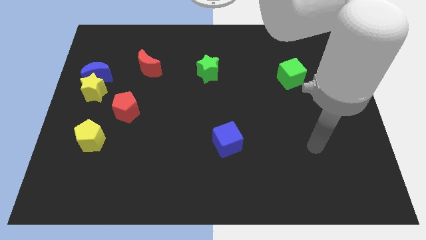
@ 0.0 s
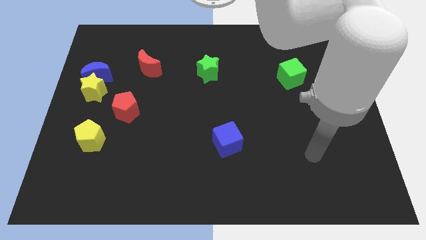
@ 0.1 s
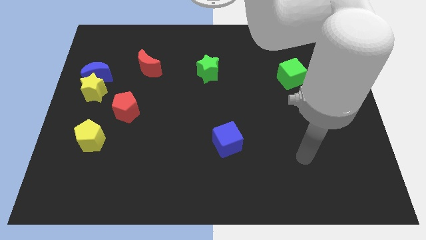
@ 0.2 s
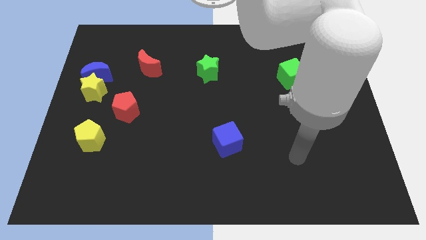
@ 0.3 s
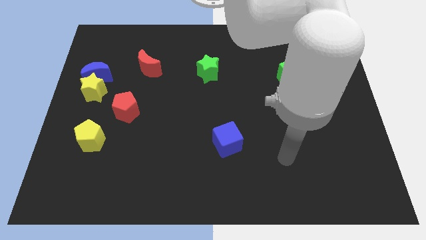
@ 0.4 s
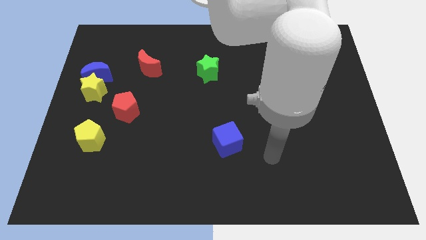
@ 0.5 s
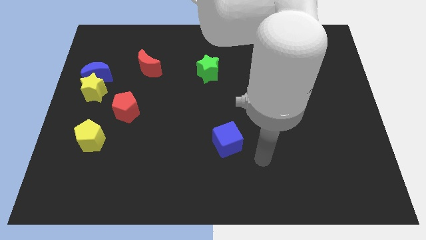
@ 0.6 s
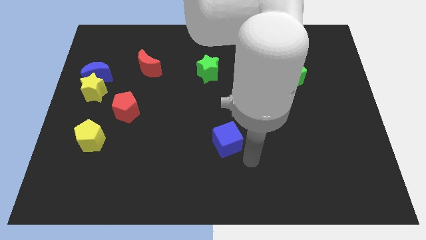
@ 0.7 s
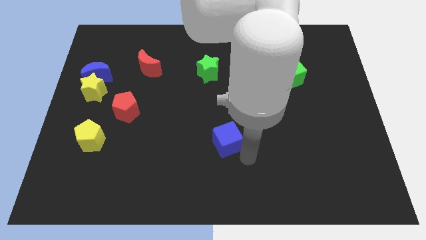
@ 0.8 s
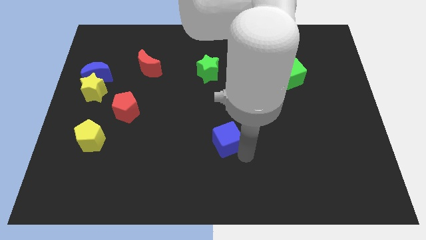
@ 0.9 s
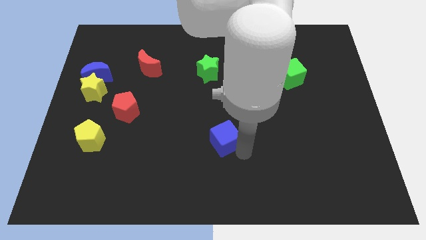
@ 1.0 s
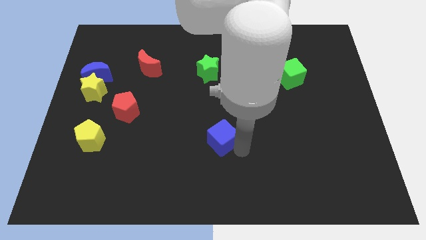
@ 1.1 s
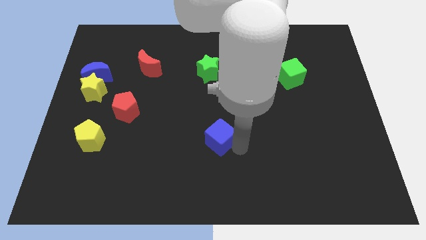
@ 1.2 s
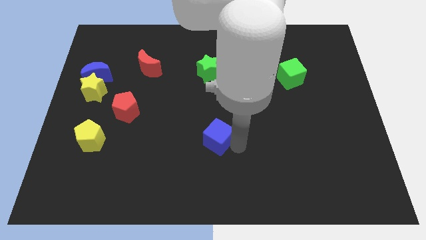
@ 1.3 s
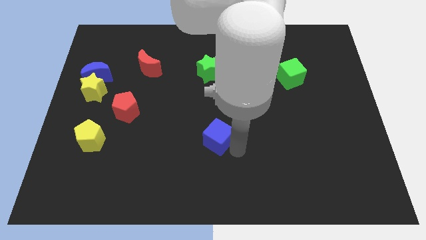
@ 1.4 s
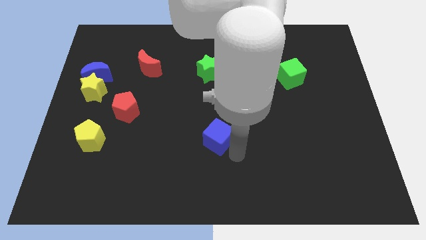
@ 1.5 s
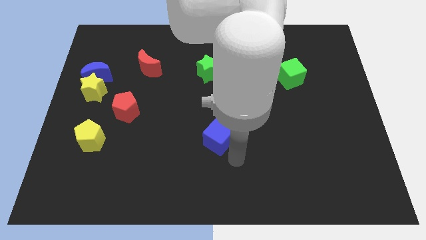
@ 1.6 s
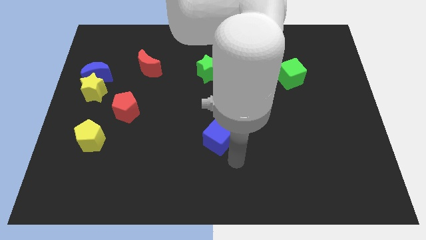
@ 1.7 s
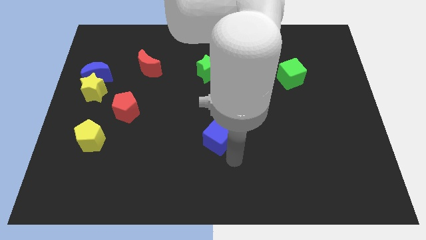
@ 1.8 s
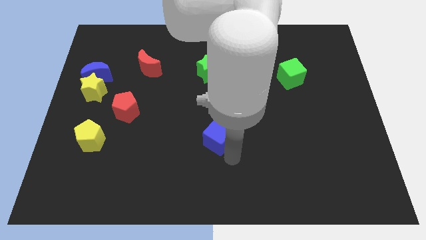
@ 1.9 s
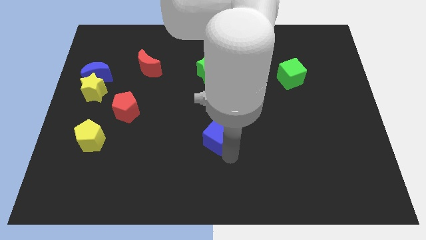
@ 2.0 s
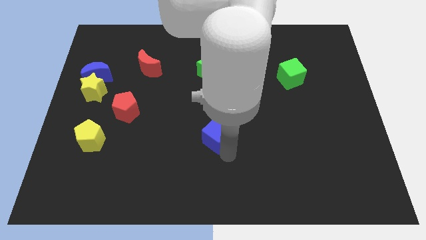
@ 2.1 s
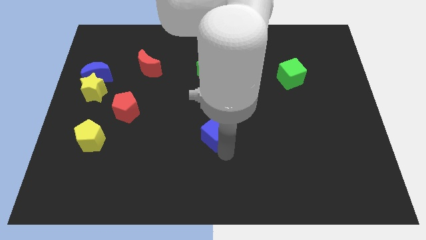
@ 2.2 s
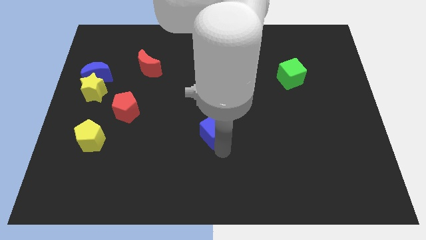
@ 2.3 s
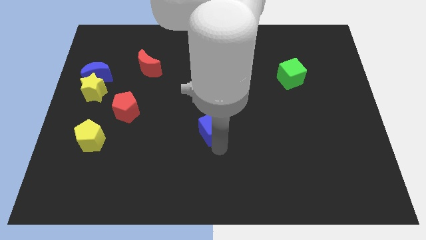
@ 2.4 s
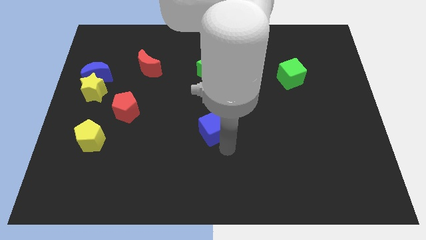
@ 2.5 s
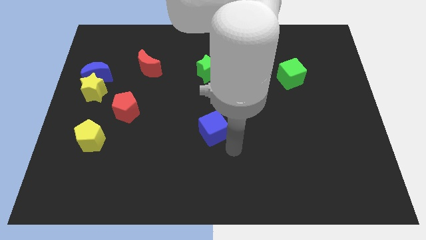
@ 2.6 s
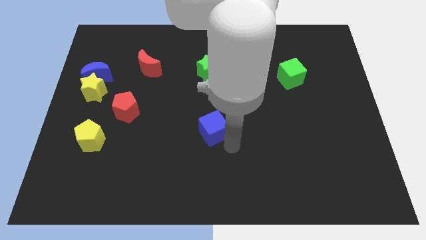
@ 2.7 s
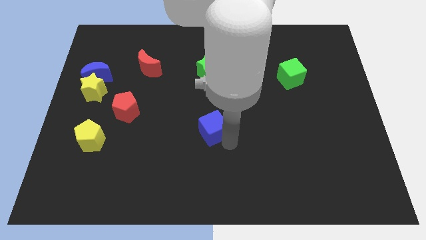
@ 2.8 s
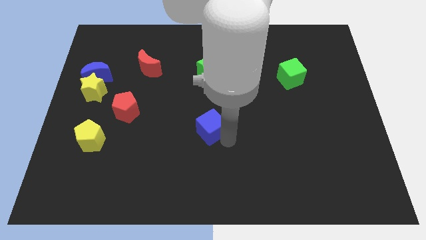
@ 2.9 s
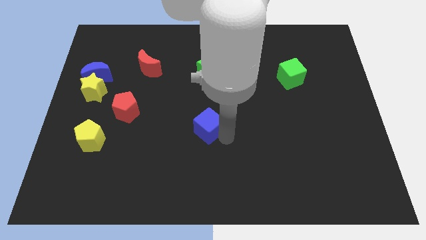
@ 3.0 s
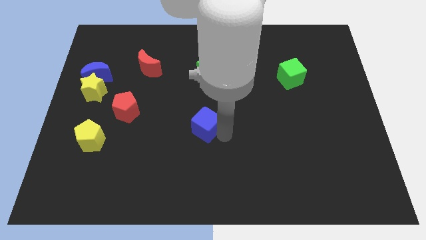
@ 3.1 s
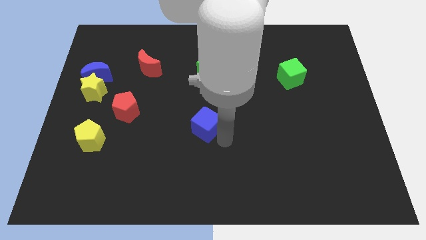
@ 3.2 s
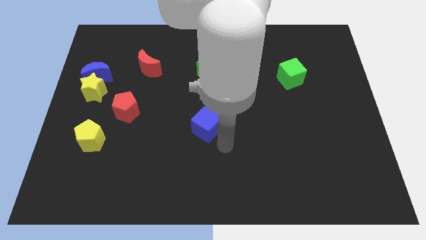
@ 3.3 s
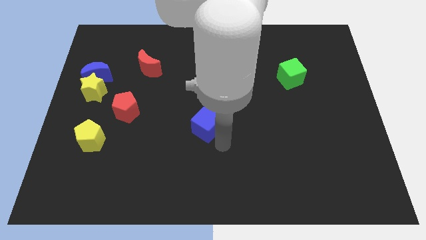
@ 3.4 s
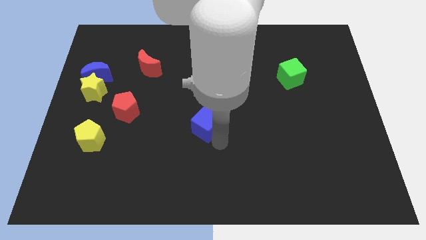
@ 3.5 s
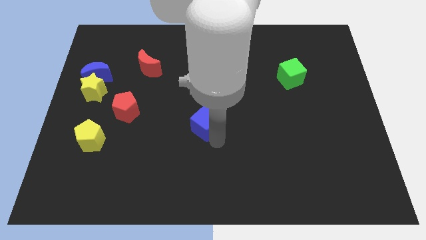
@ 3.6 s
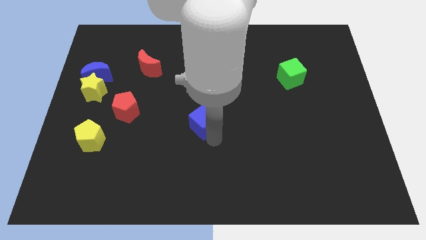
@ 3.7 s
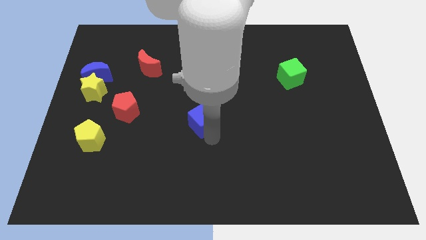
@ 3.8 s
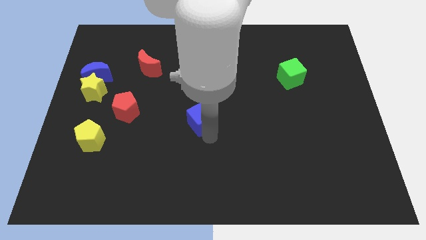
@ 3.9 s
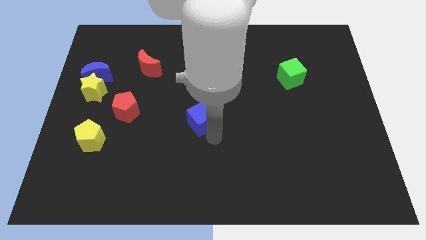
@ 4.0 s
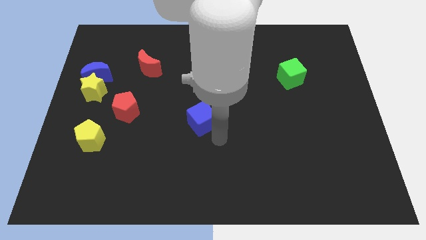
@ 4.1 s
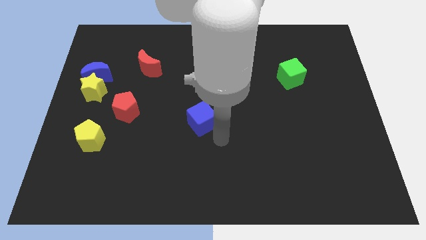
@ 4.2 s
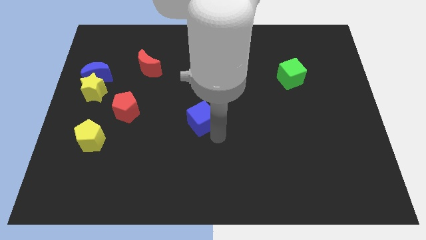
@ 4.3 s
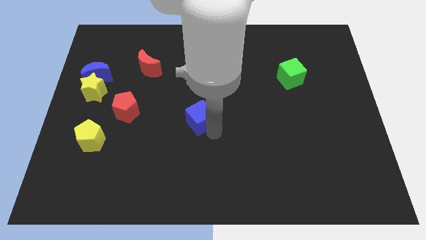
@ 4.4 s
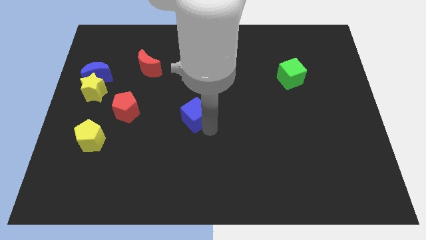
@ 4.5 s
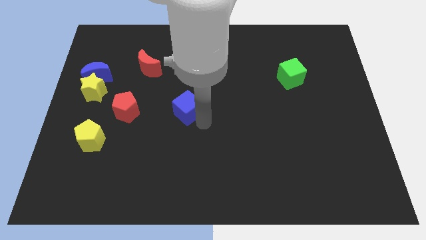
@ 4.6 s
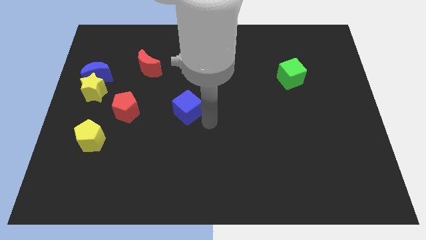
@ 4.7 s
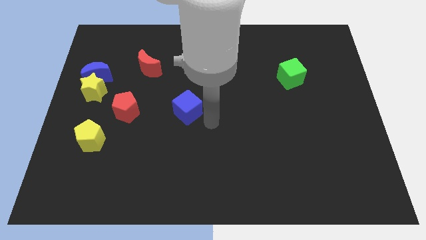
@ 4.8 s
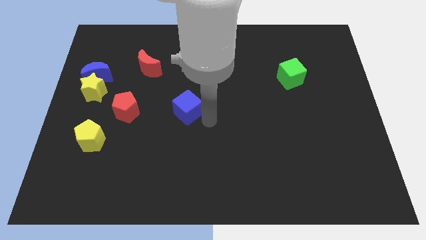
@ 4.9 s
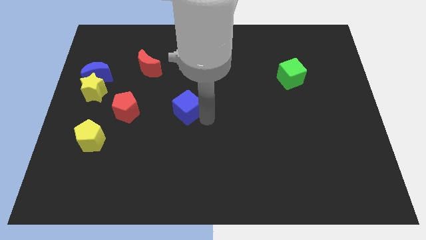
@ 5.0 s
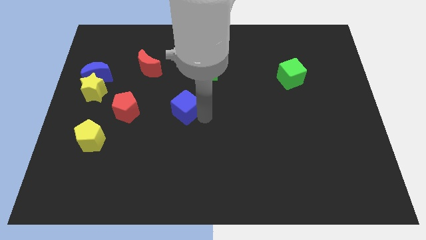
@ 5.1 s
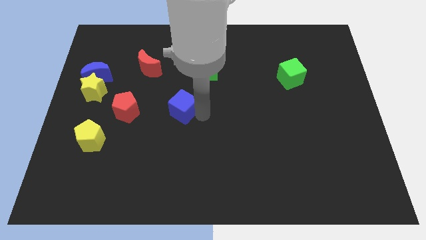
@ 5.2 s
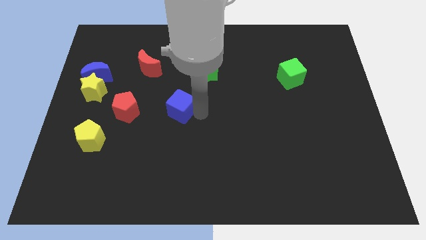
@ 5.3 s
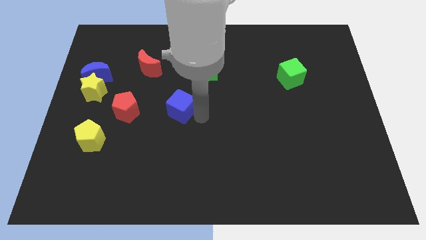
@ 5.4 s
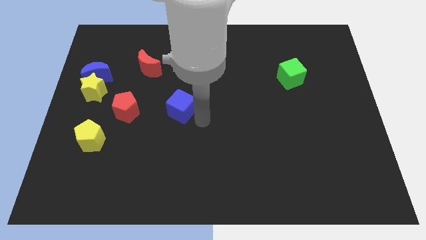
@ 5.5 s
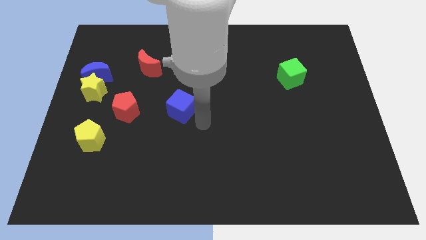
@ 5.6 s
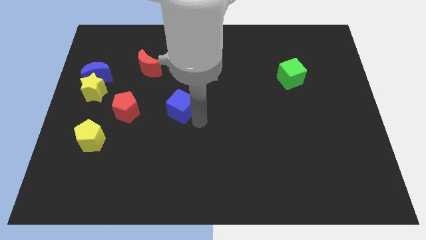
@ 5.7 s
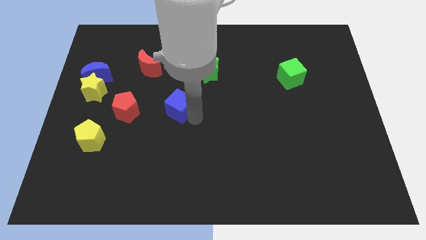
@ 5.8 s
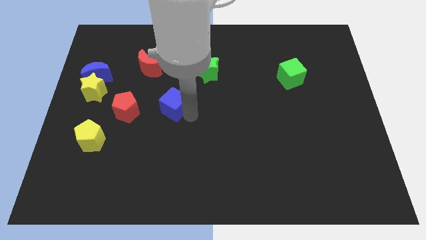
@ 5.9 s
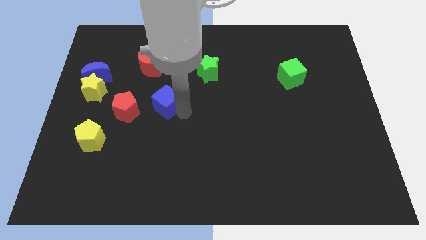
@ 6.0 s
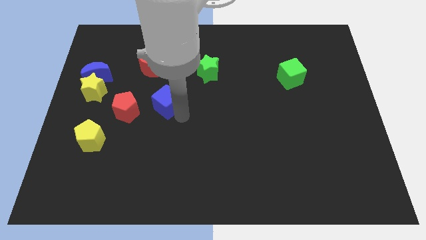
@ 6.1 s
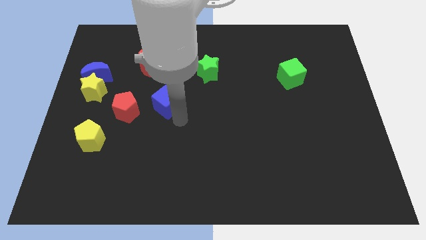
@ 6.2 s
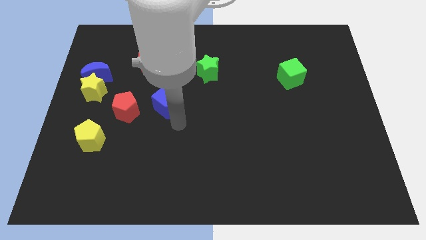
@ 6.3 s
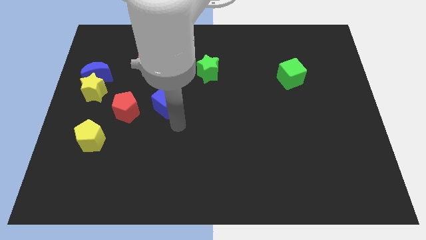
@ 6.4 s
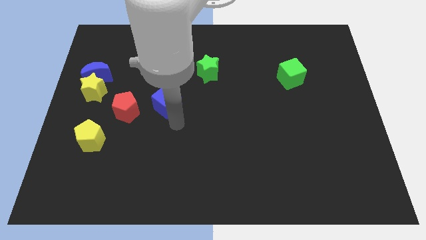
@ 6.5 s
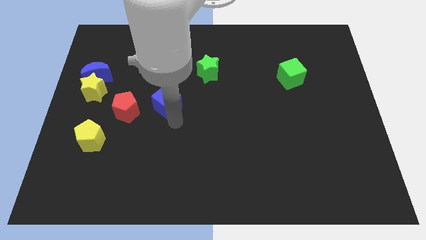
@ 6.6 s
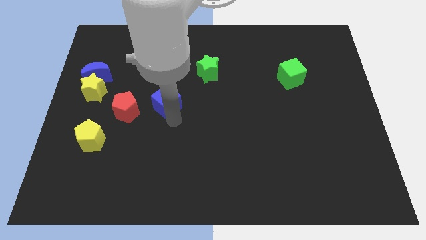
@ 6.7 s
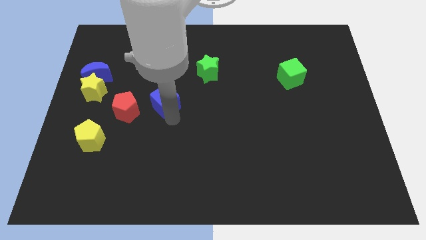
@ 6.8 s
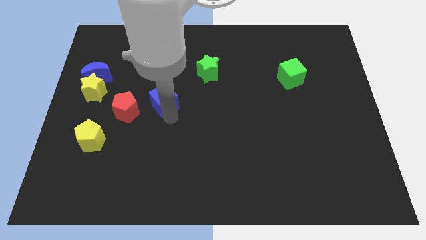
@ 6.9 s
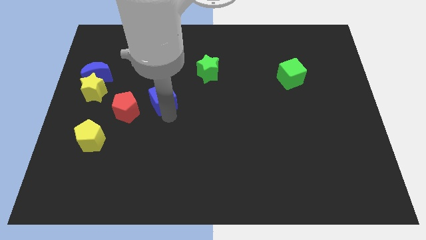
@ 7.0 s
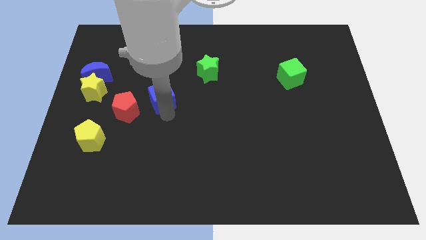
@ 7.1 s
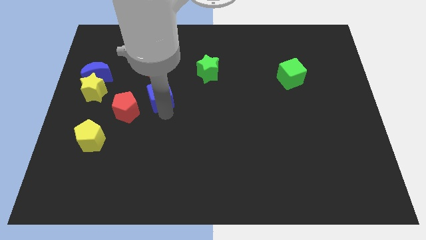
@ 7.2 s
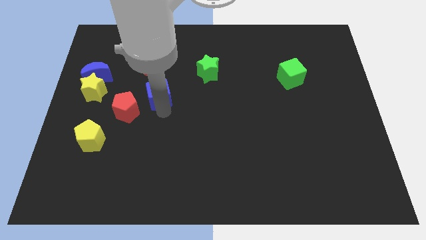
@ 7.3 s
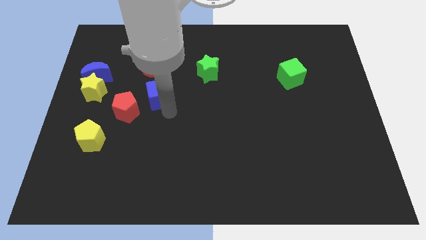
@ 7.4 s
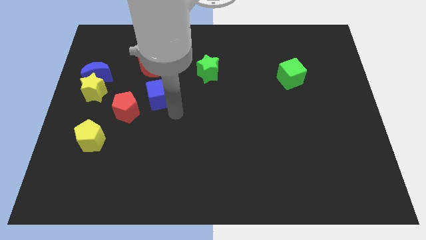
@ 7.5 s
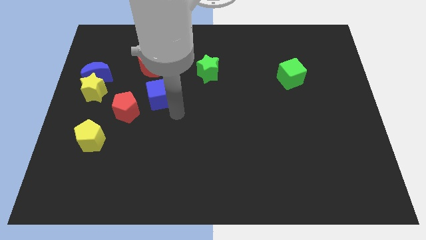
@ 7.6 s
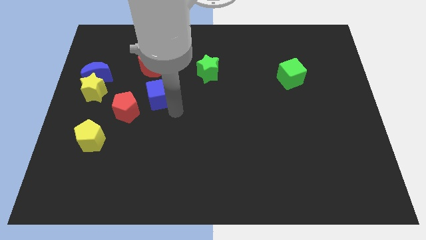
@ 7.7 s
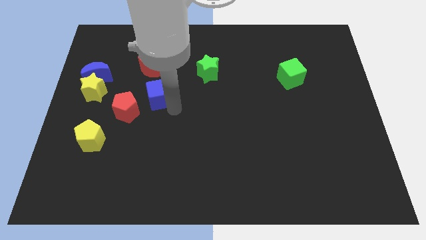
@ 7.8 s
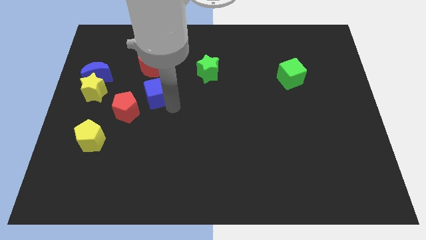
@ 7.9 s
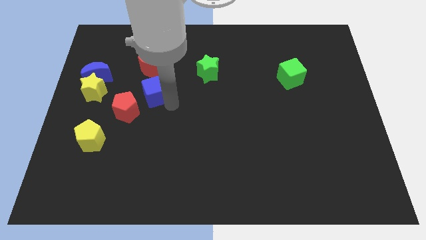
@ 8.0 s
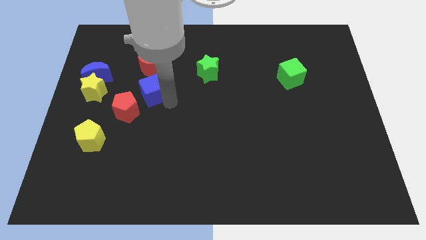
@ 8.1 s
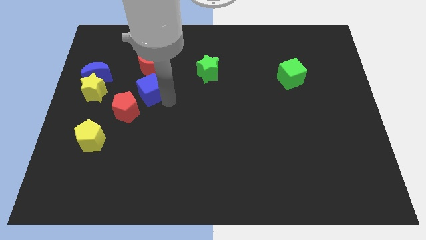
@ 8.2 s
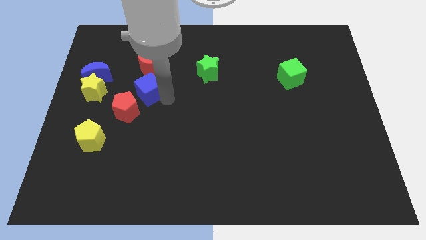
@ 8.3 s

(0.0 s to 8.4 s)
move the blue cube above the red pentagon
